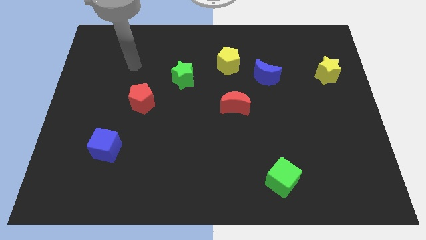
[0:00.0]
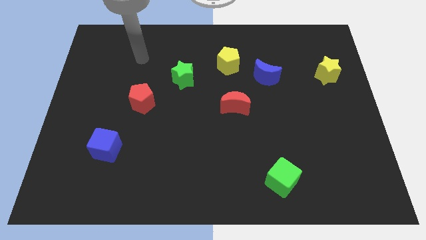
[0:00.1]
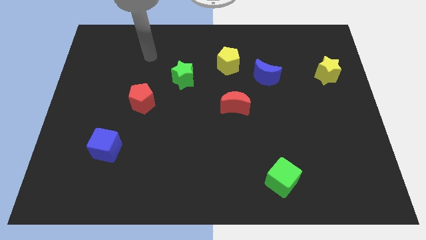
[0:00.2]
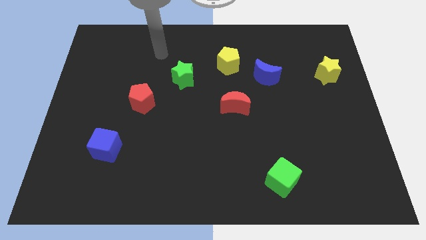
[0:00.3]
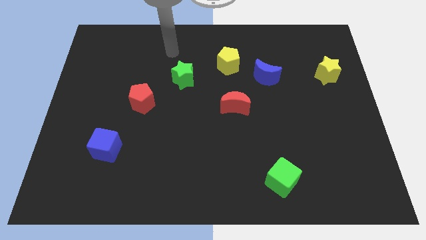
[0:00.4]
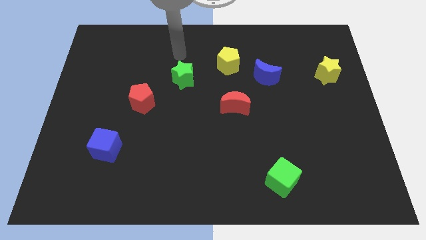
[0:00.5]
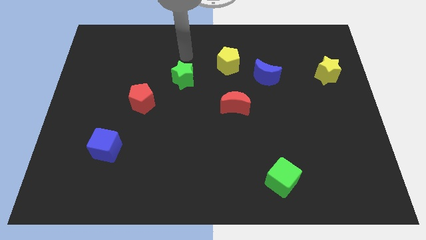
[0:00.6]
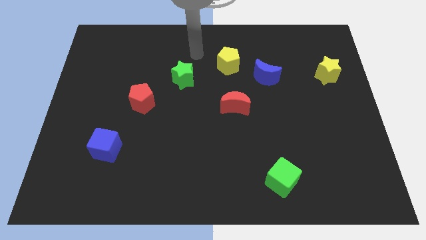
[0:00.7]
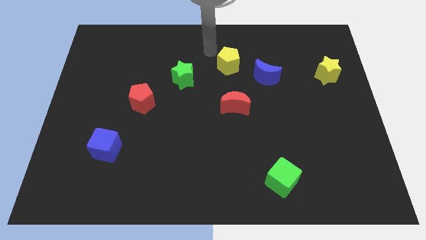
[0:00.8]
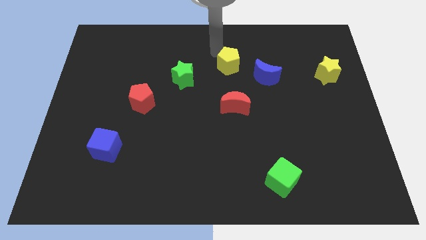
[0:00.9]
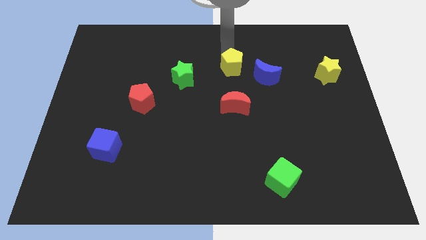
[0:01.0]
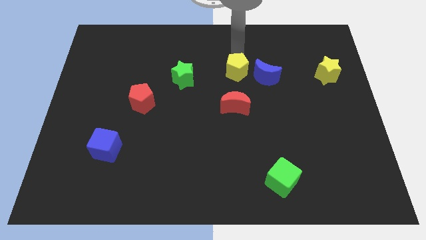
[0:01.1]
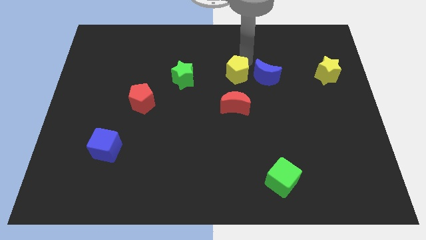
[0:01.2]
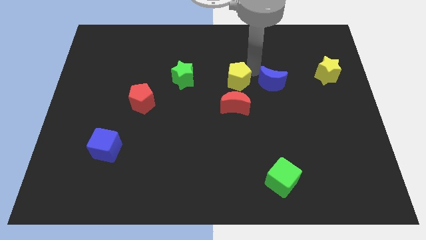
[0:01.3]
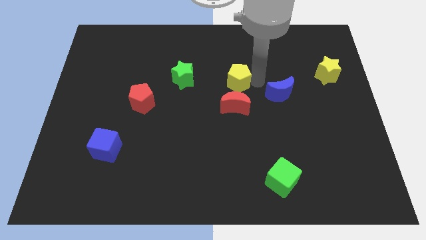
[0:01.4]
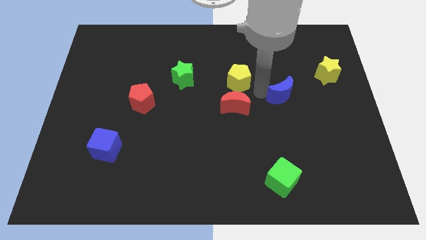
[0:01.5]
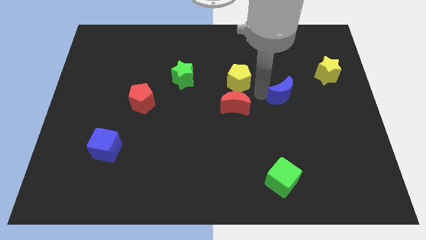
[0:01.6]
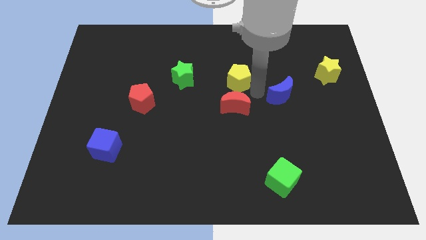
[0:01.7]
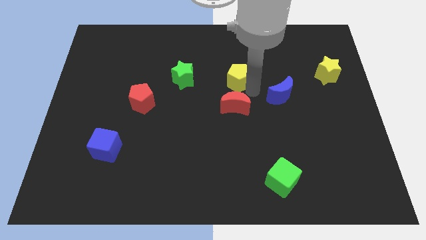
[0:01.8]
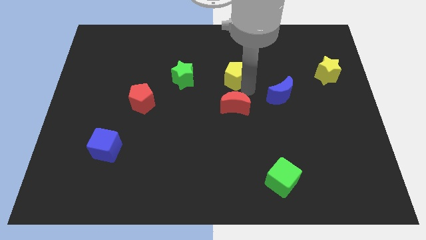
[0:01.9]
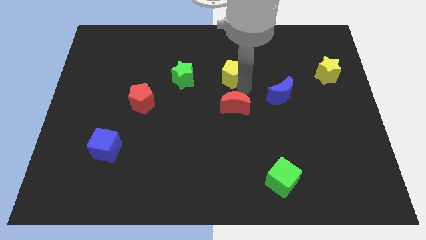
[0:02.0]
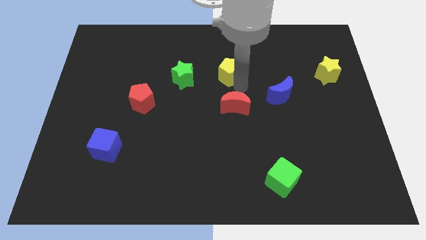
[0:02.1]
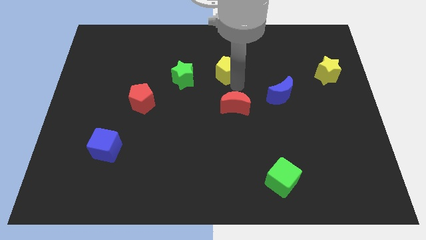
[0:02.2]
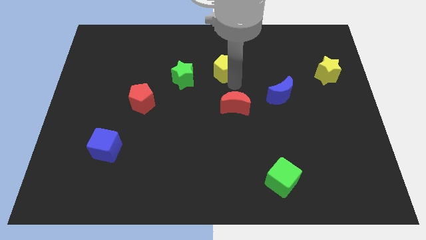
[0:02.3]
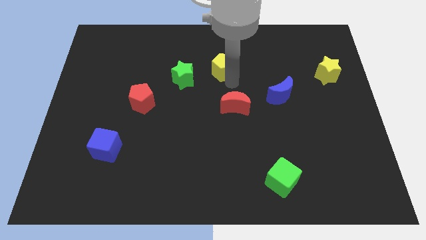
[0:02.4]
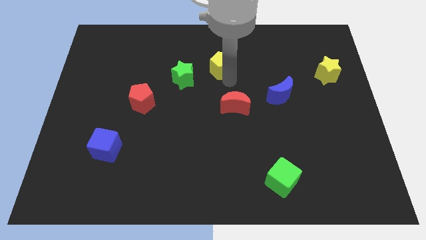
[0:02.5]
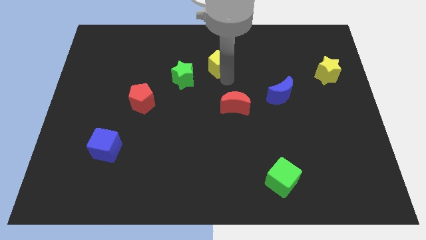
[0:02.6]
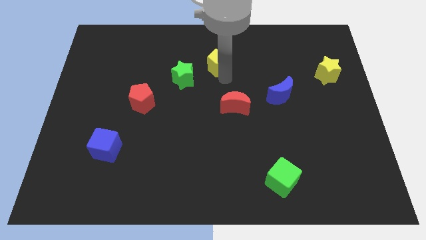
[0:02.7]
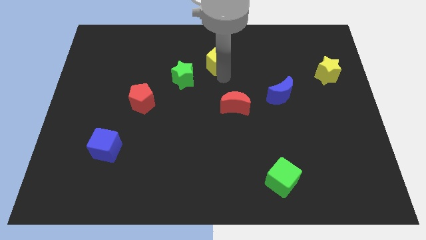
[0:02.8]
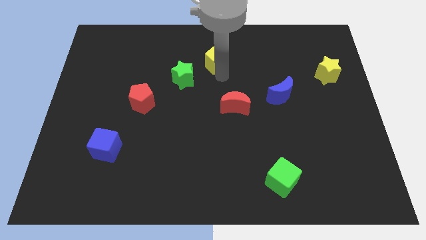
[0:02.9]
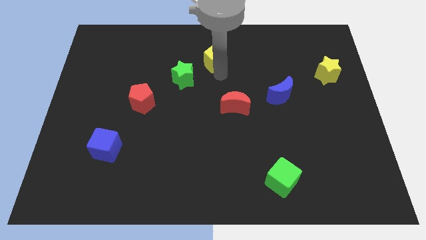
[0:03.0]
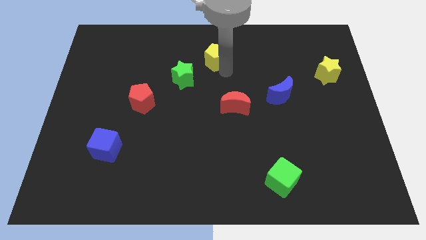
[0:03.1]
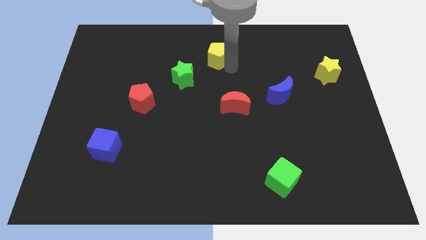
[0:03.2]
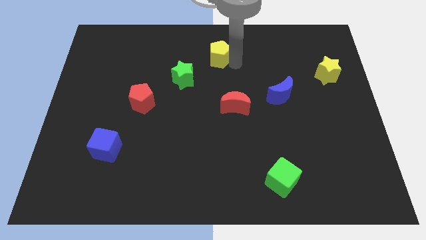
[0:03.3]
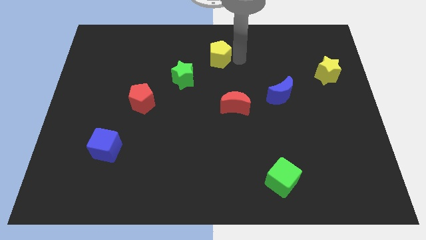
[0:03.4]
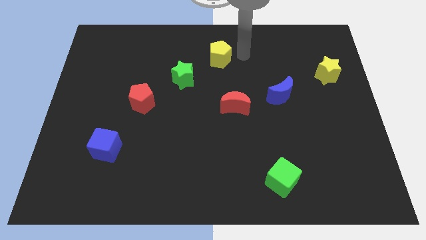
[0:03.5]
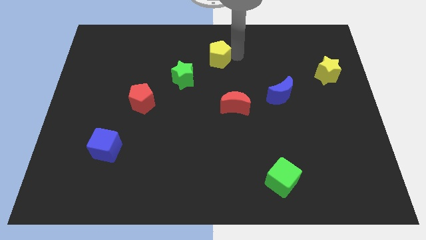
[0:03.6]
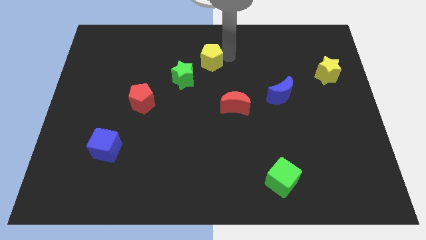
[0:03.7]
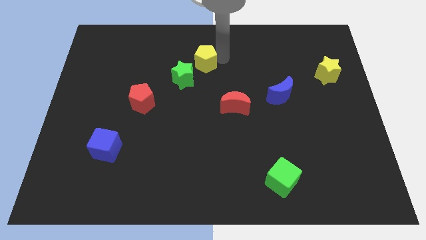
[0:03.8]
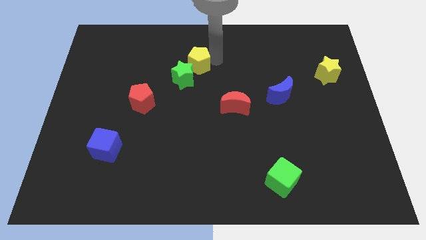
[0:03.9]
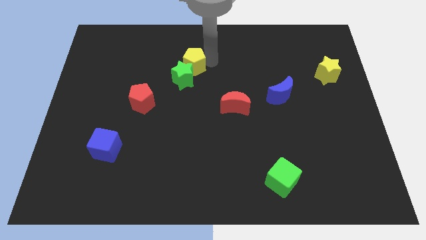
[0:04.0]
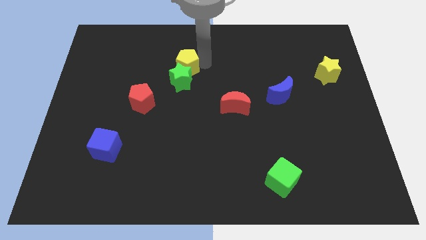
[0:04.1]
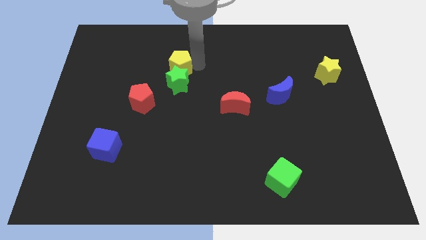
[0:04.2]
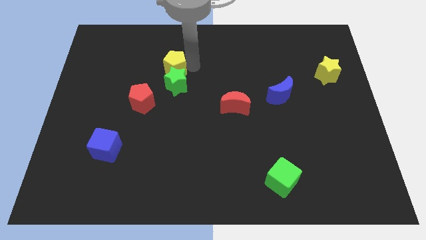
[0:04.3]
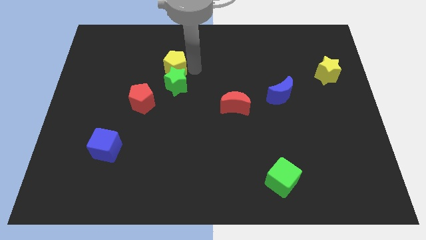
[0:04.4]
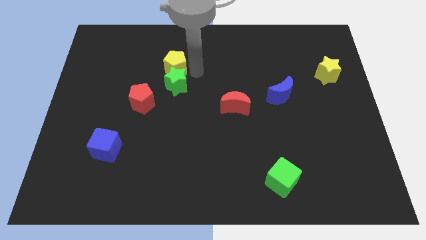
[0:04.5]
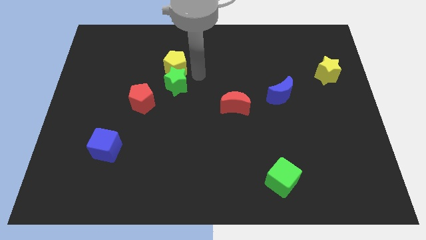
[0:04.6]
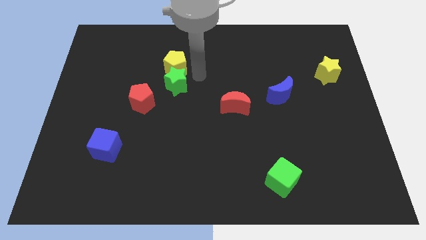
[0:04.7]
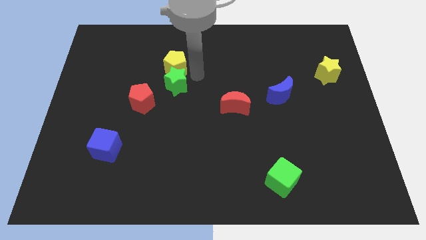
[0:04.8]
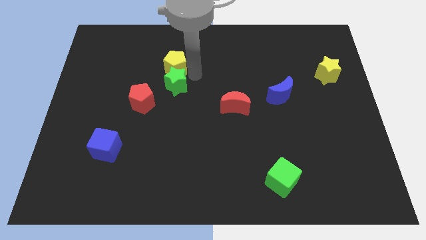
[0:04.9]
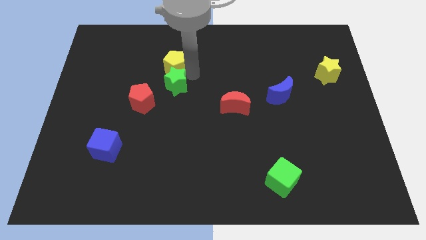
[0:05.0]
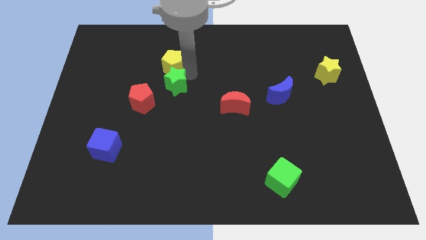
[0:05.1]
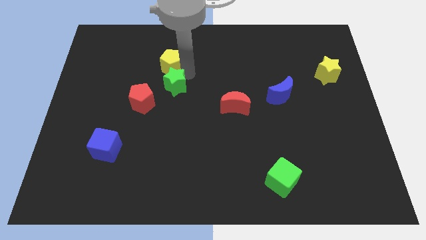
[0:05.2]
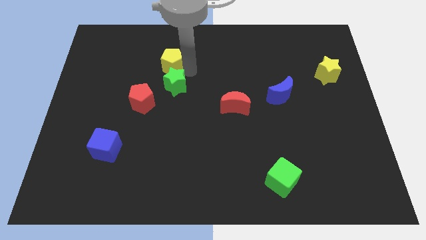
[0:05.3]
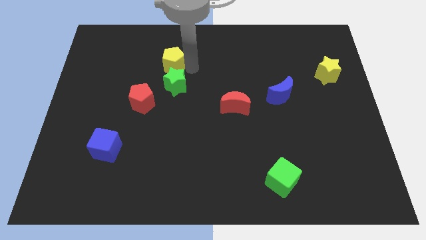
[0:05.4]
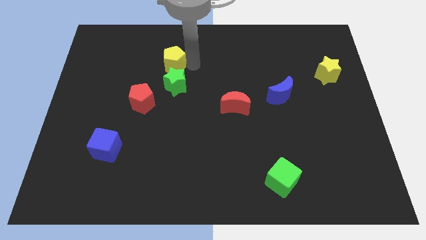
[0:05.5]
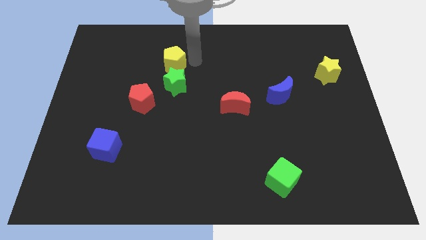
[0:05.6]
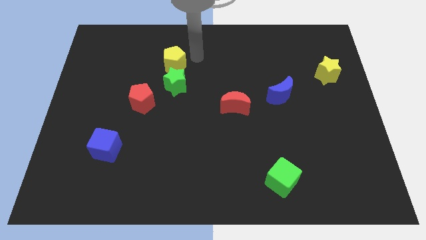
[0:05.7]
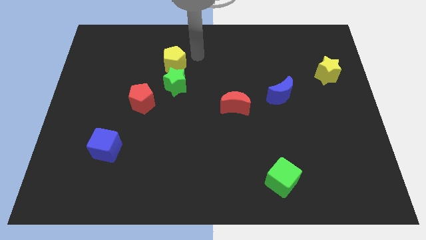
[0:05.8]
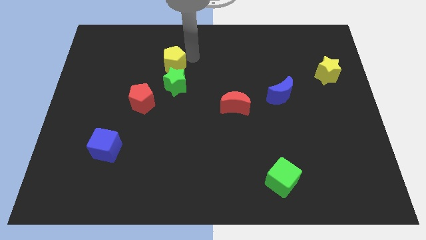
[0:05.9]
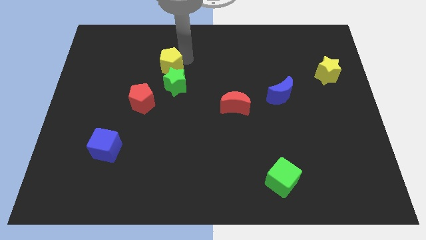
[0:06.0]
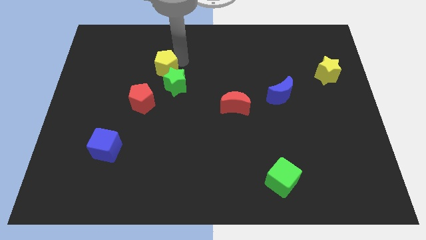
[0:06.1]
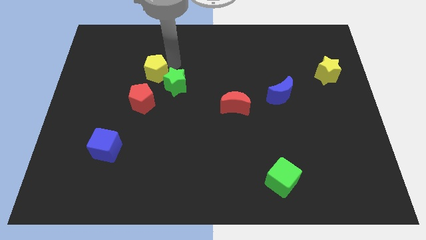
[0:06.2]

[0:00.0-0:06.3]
move the yellow pentagon to the left of the green star

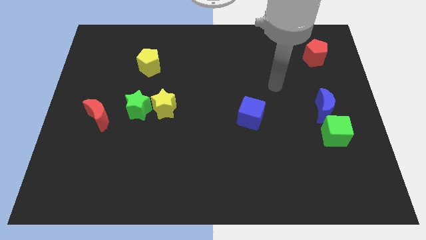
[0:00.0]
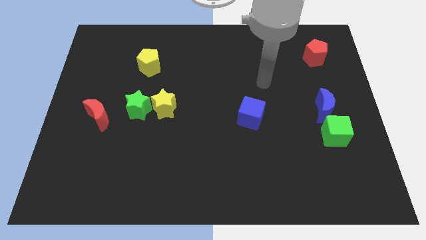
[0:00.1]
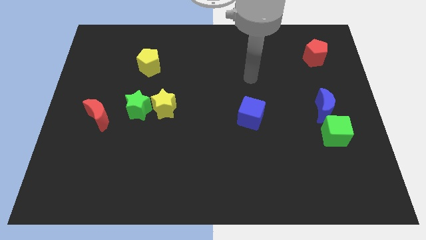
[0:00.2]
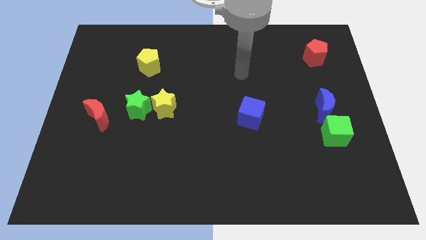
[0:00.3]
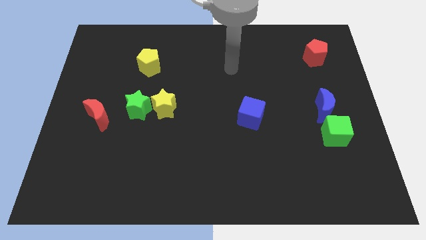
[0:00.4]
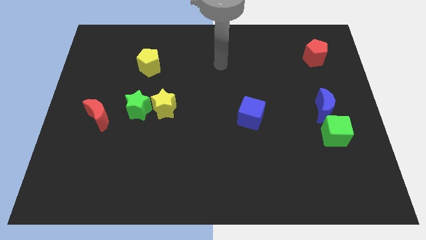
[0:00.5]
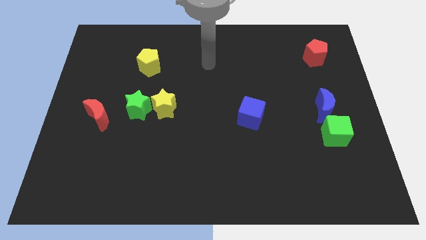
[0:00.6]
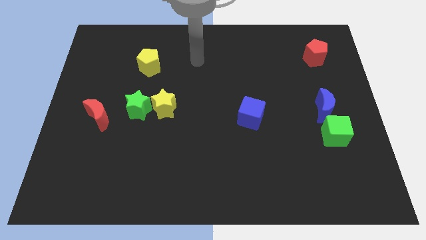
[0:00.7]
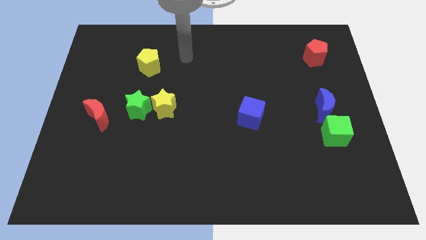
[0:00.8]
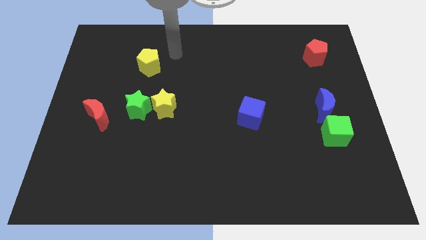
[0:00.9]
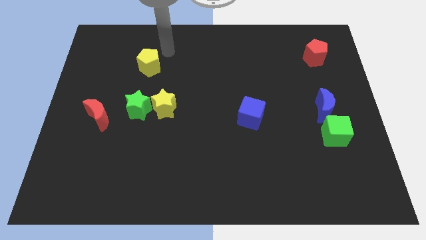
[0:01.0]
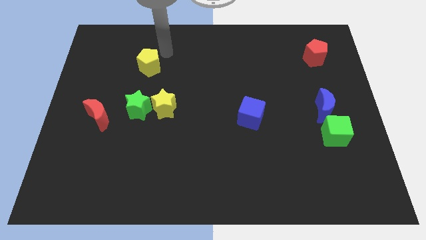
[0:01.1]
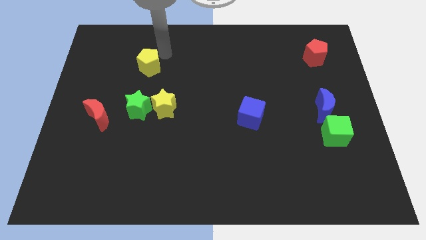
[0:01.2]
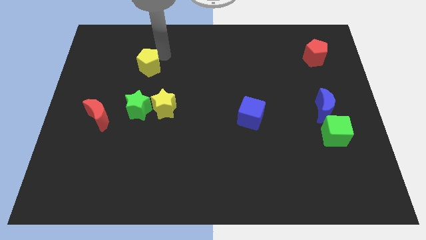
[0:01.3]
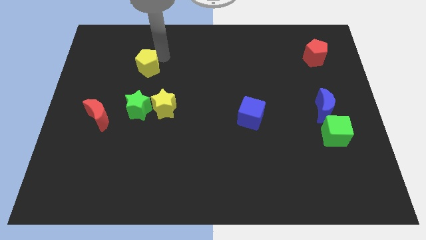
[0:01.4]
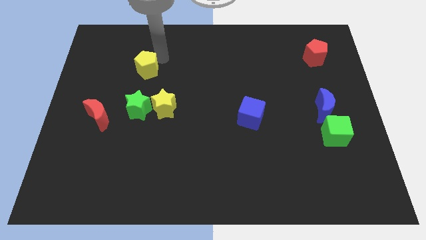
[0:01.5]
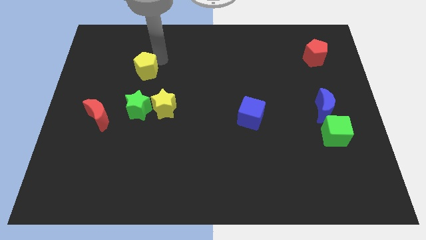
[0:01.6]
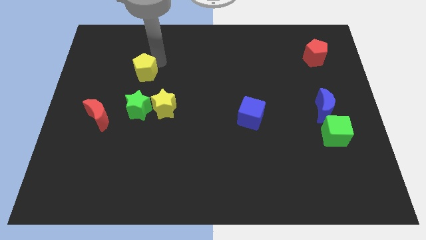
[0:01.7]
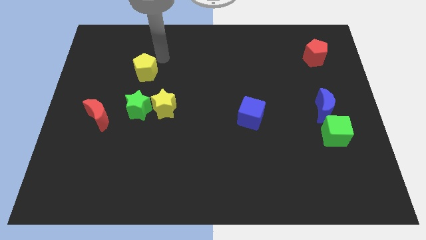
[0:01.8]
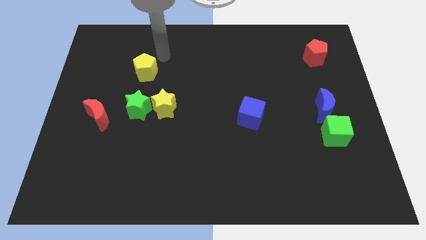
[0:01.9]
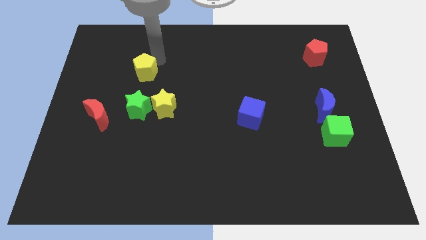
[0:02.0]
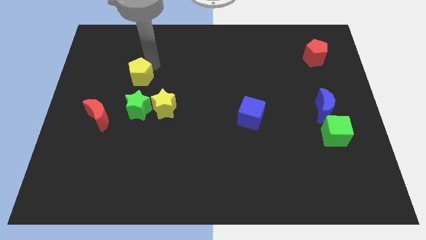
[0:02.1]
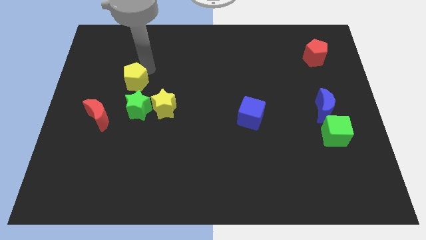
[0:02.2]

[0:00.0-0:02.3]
move the yellow pentagon diagonally up and to the left of the green star
